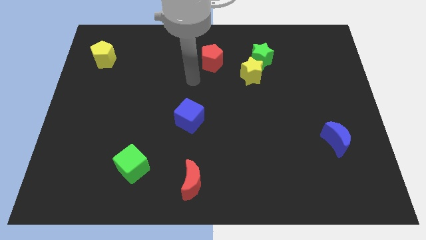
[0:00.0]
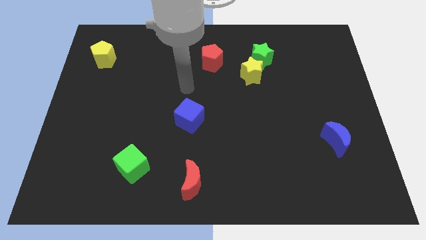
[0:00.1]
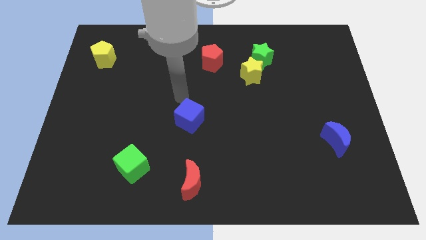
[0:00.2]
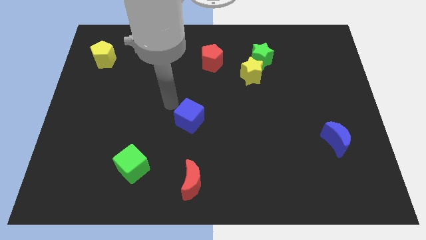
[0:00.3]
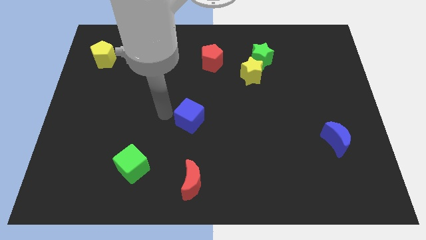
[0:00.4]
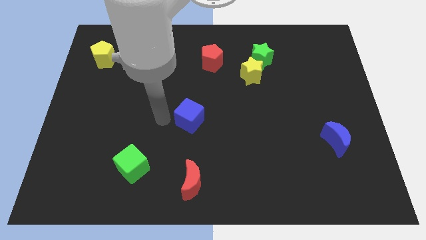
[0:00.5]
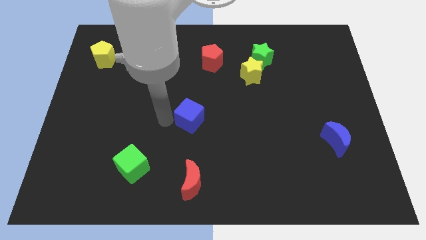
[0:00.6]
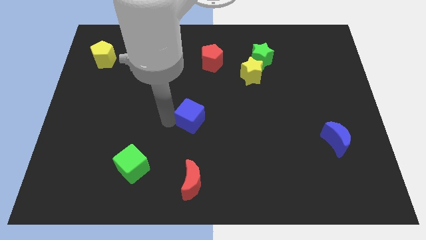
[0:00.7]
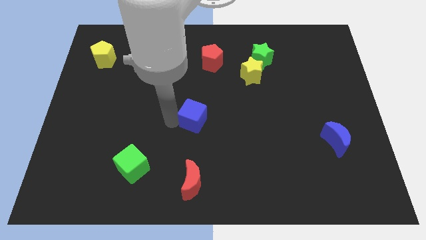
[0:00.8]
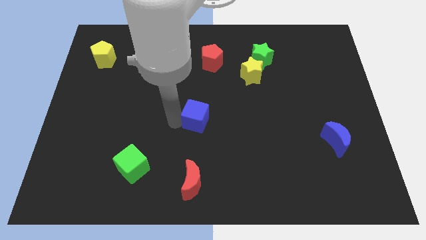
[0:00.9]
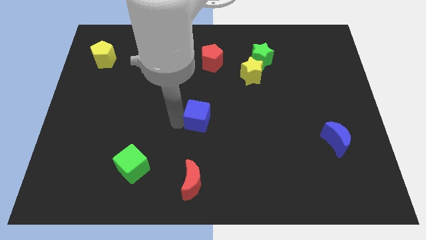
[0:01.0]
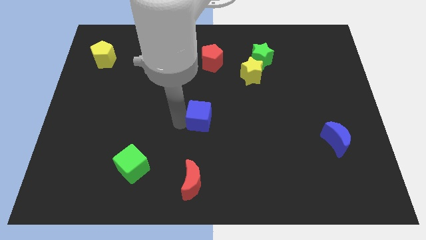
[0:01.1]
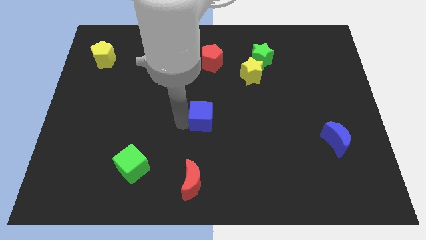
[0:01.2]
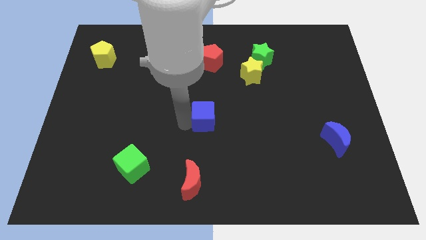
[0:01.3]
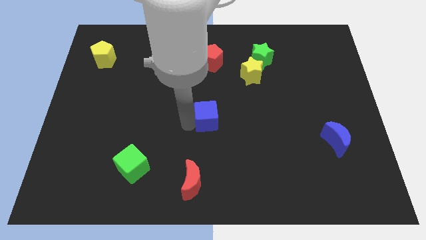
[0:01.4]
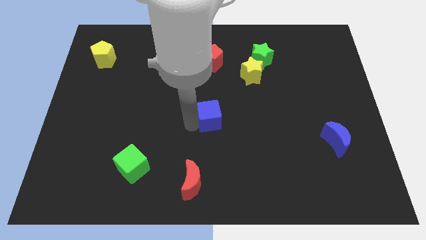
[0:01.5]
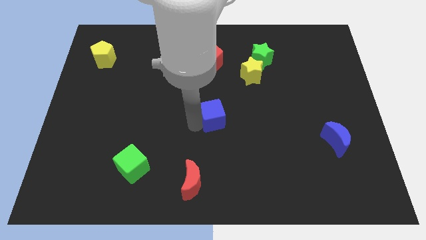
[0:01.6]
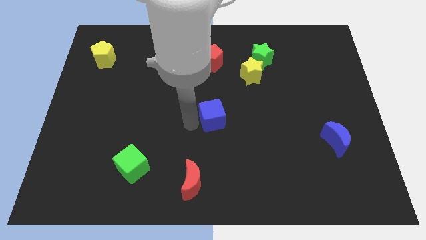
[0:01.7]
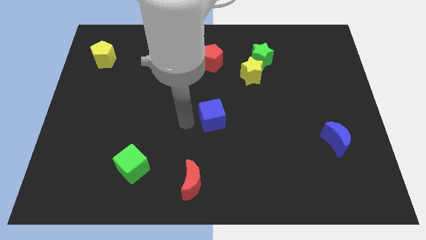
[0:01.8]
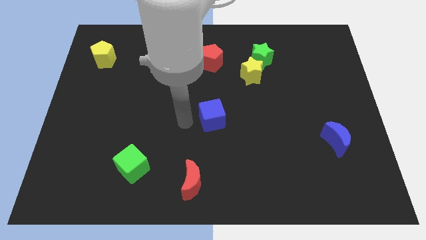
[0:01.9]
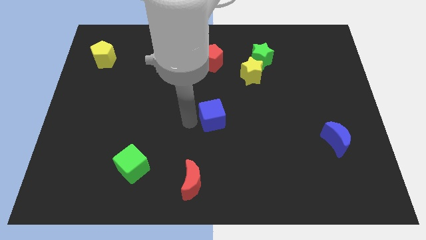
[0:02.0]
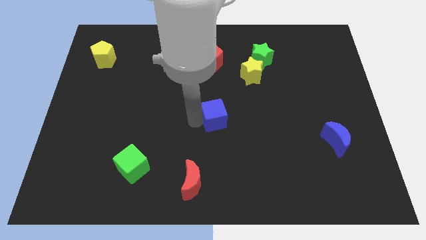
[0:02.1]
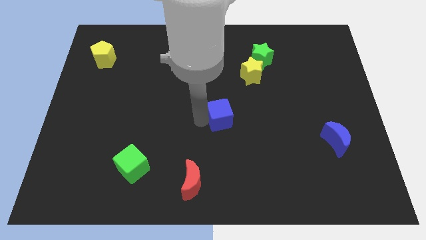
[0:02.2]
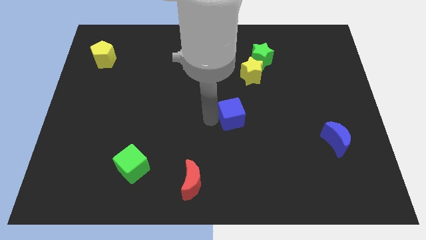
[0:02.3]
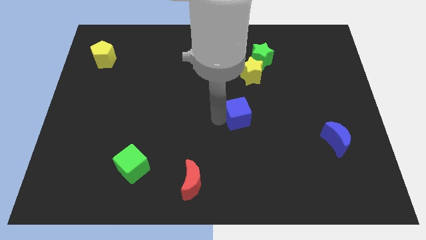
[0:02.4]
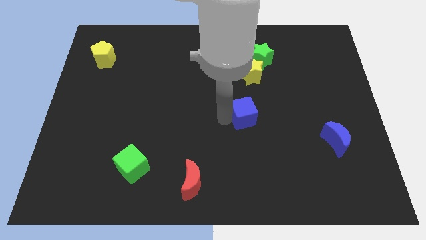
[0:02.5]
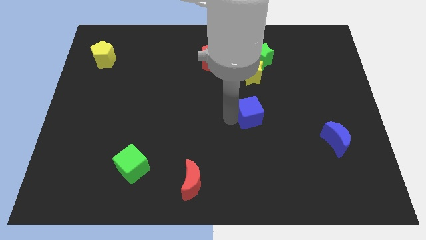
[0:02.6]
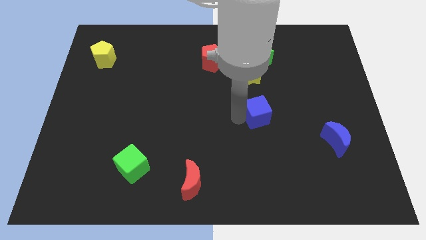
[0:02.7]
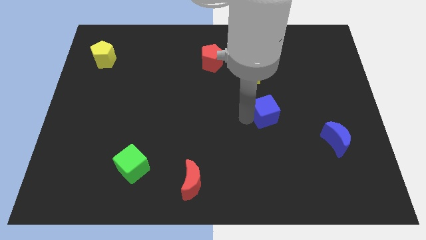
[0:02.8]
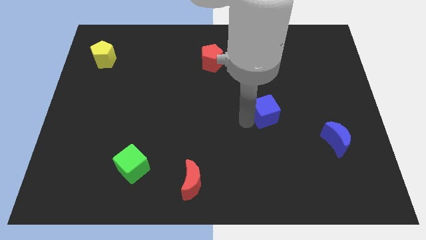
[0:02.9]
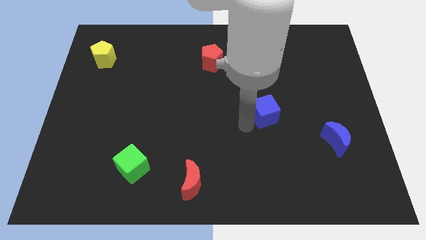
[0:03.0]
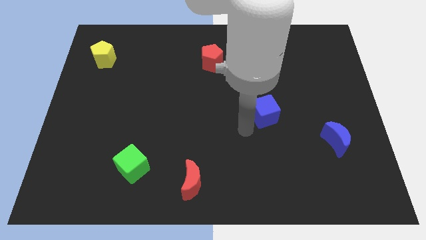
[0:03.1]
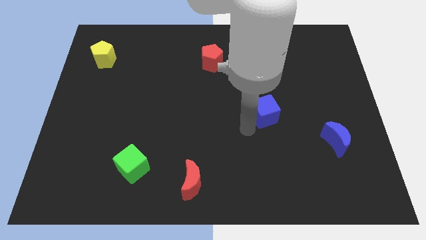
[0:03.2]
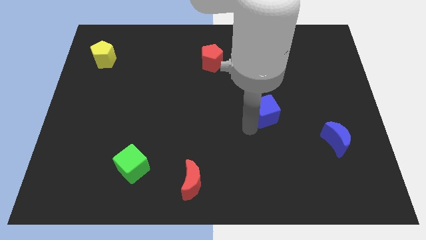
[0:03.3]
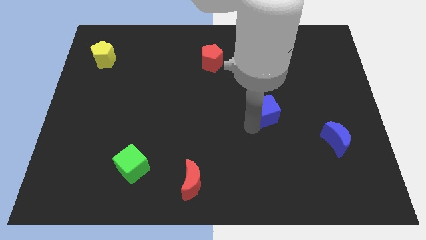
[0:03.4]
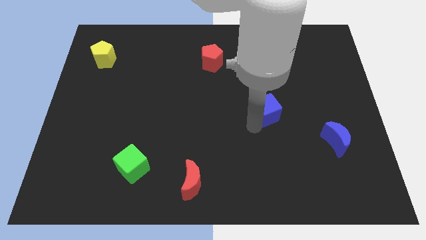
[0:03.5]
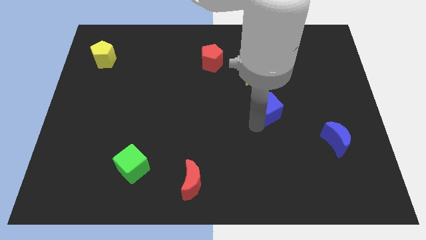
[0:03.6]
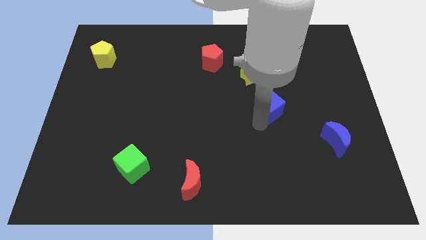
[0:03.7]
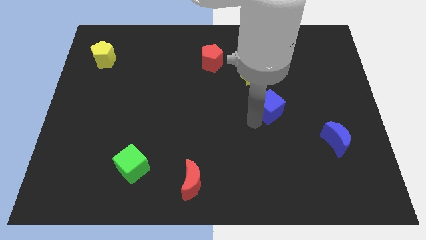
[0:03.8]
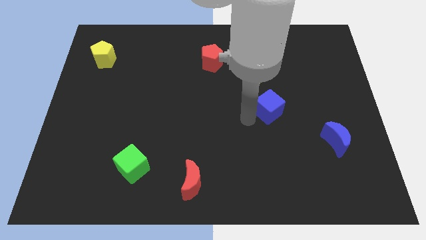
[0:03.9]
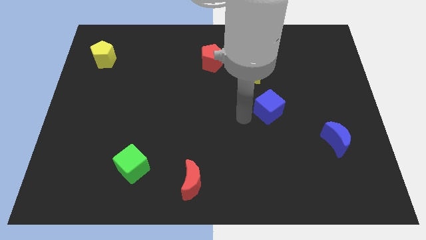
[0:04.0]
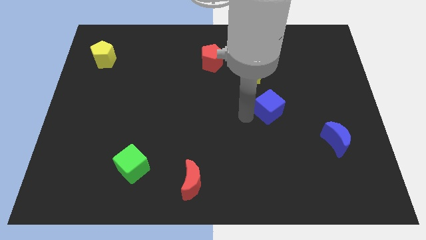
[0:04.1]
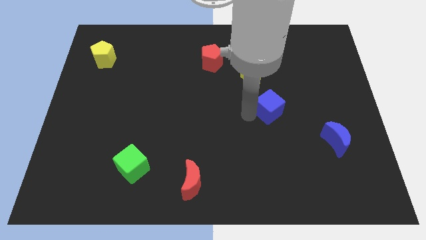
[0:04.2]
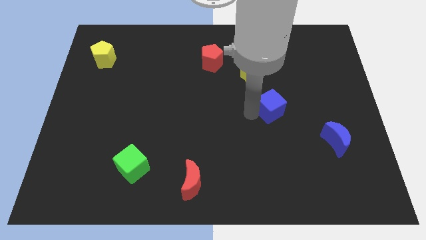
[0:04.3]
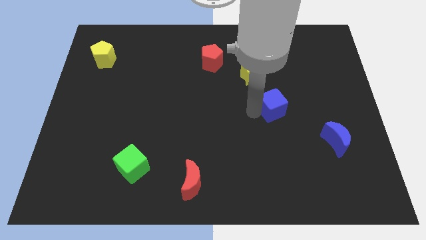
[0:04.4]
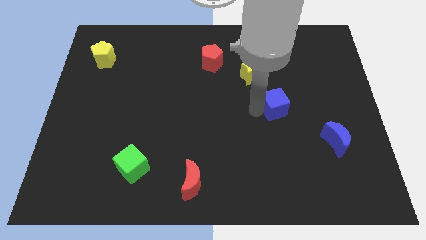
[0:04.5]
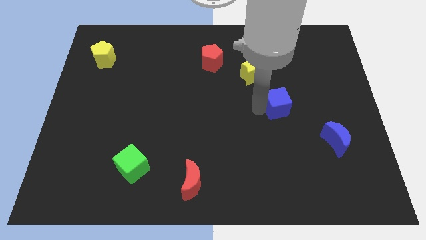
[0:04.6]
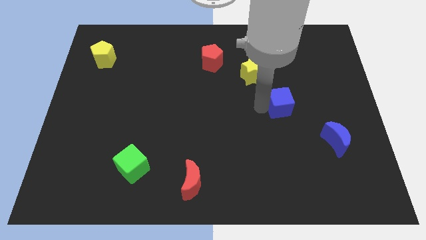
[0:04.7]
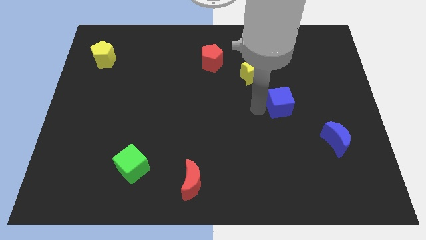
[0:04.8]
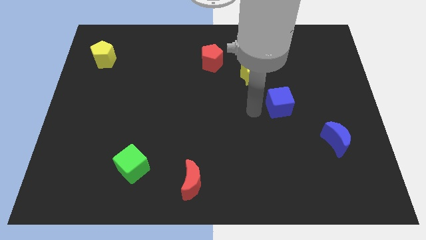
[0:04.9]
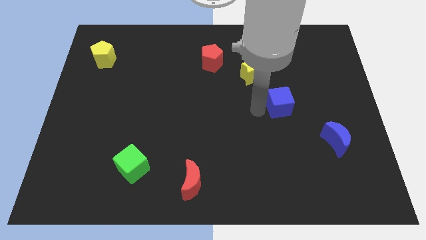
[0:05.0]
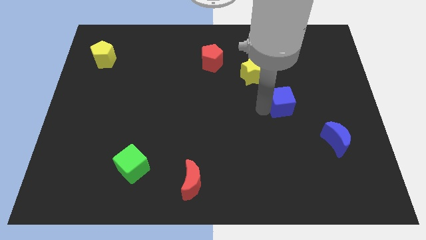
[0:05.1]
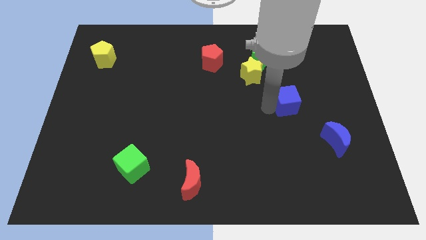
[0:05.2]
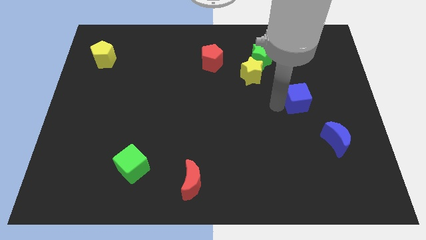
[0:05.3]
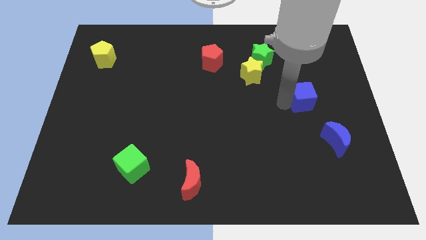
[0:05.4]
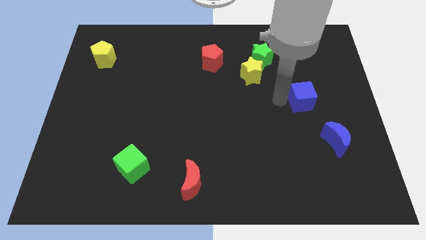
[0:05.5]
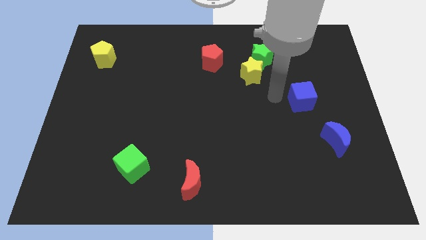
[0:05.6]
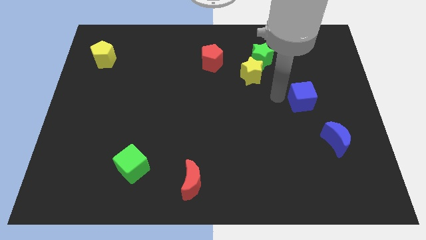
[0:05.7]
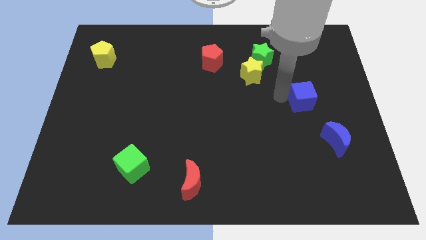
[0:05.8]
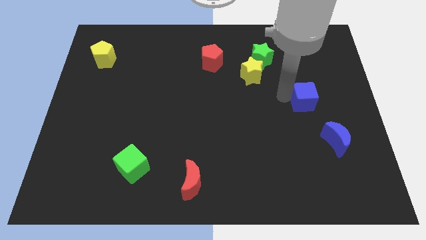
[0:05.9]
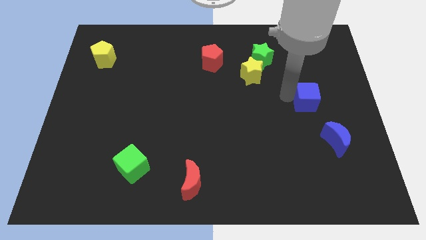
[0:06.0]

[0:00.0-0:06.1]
push the blue cube to the top side of the blue moon

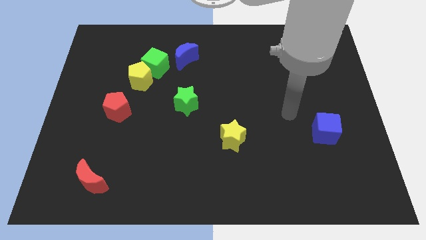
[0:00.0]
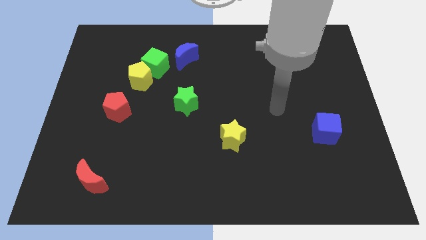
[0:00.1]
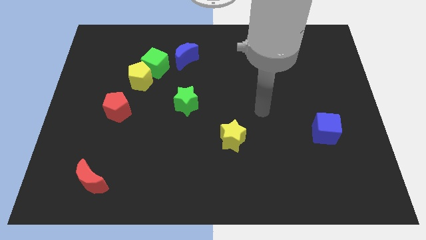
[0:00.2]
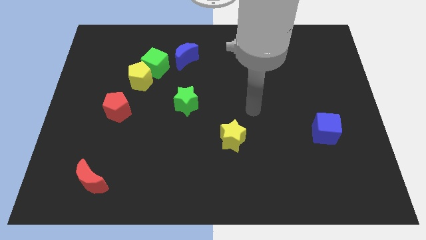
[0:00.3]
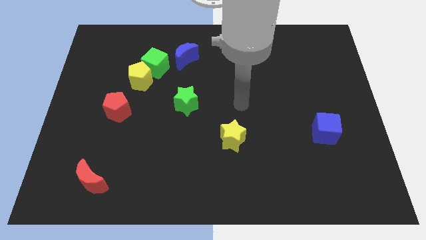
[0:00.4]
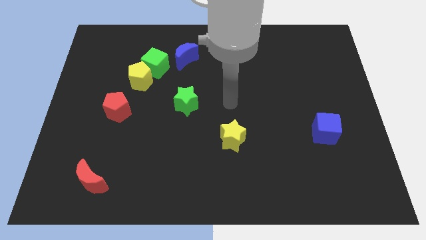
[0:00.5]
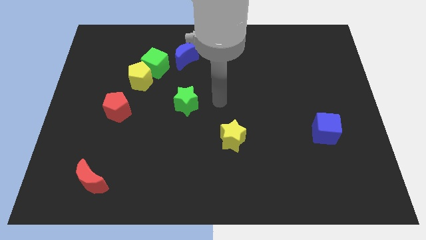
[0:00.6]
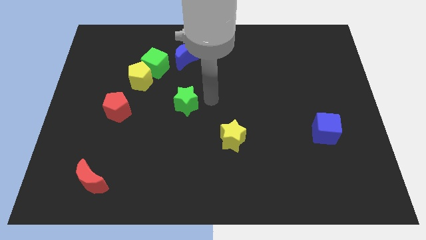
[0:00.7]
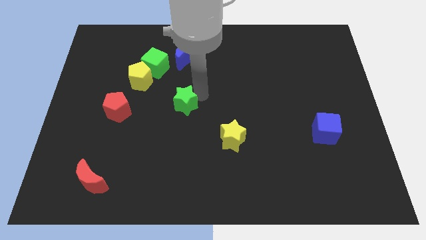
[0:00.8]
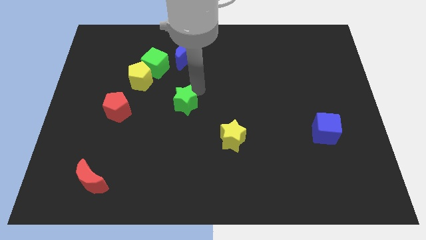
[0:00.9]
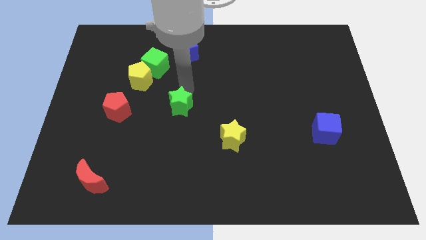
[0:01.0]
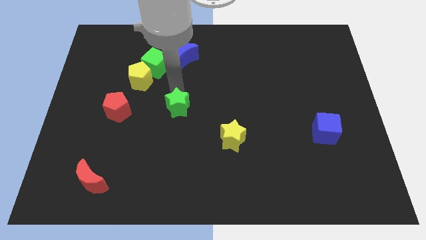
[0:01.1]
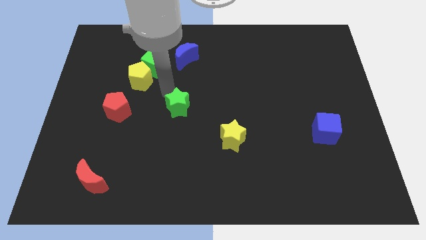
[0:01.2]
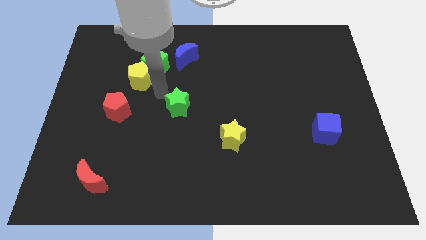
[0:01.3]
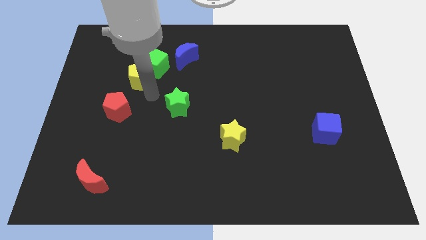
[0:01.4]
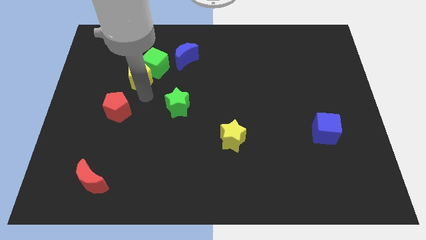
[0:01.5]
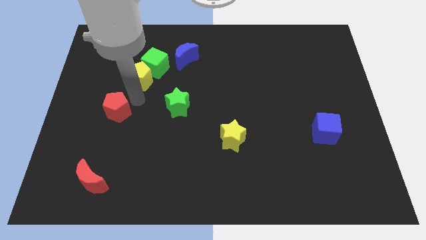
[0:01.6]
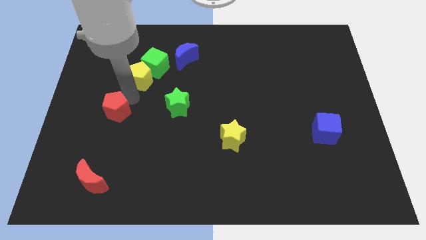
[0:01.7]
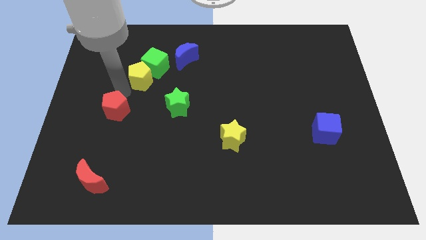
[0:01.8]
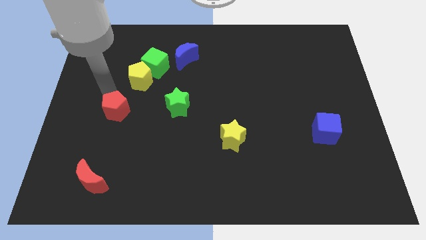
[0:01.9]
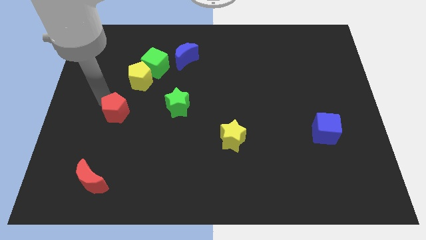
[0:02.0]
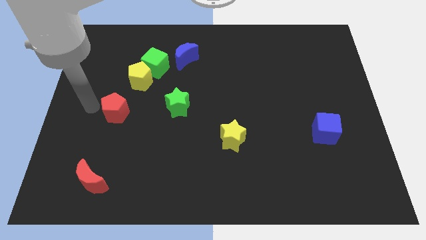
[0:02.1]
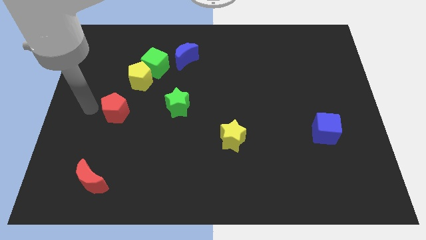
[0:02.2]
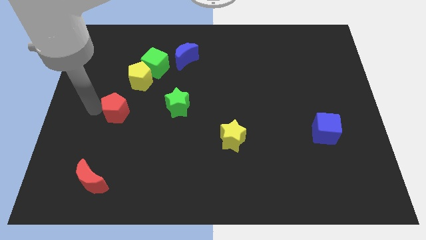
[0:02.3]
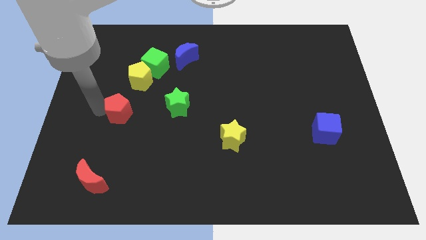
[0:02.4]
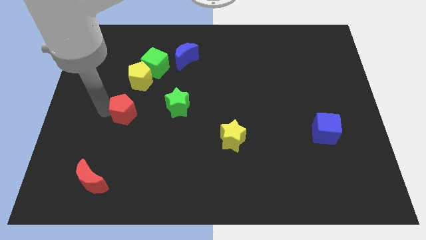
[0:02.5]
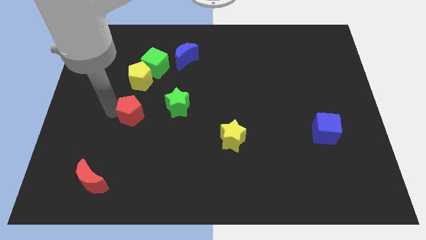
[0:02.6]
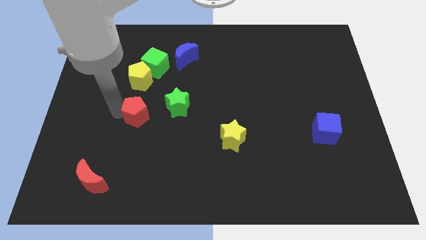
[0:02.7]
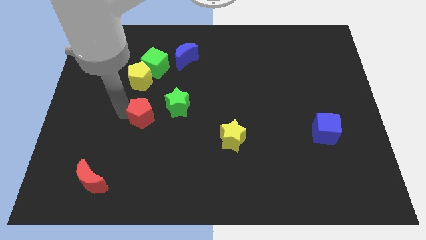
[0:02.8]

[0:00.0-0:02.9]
slide the red pentagon diagonally down and to the left of the green star
